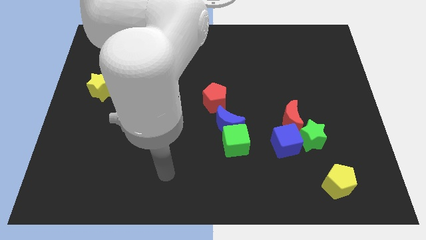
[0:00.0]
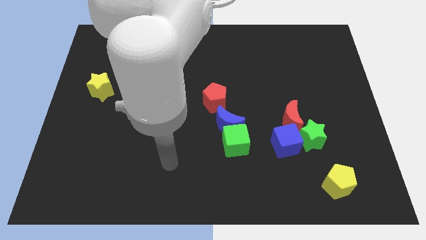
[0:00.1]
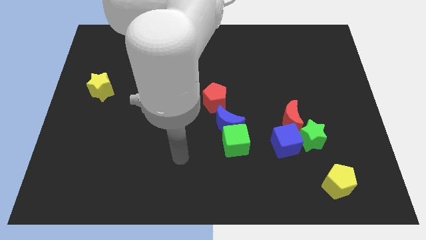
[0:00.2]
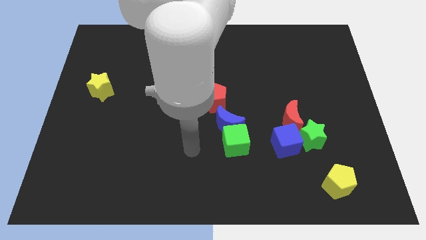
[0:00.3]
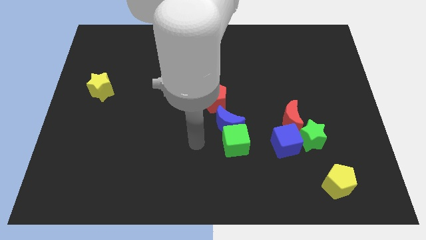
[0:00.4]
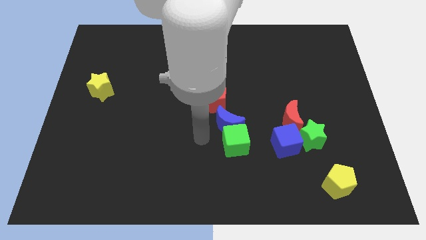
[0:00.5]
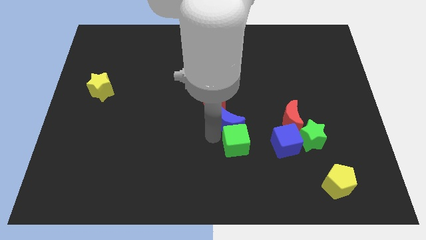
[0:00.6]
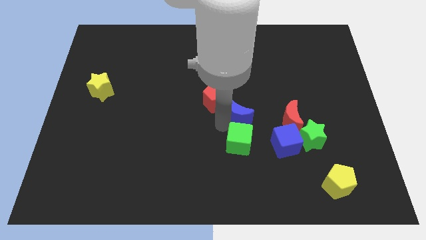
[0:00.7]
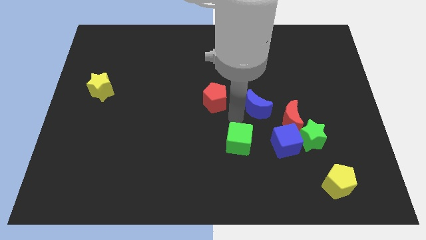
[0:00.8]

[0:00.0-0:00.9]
move the green cube away from the blue moon

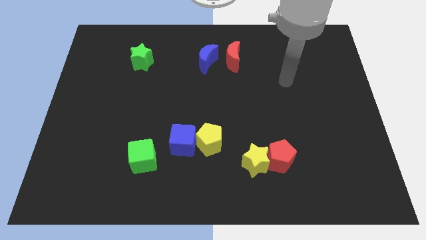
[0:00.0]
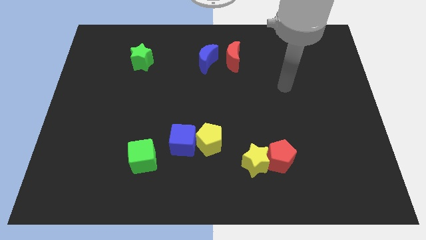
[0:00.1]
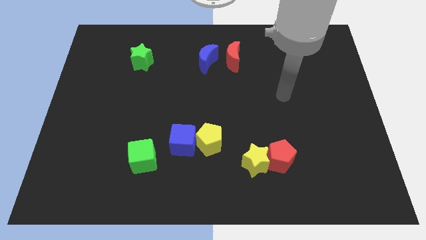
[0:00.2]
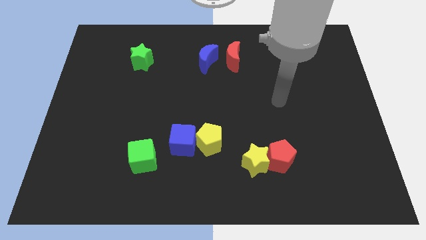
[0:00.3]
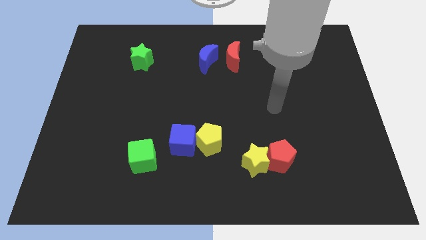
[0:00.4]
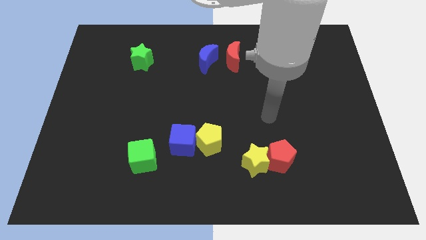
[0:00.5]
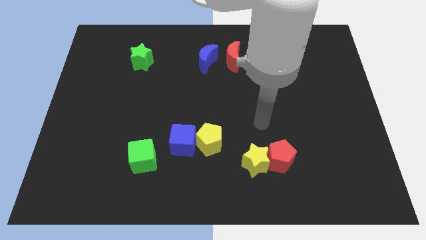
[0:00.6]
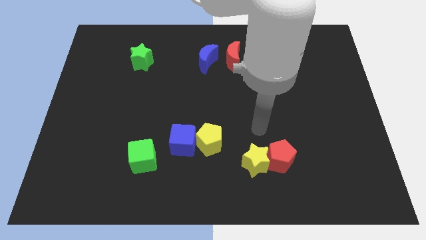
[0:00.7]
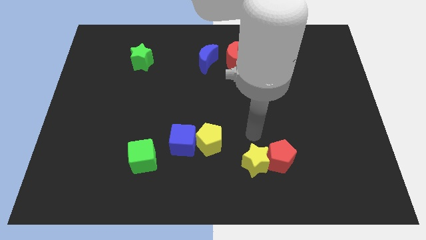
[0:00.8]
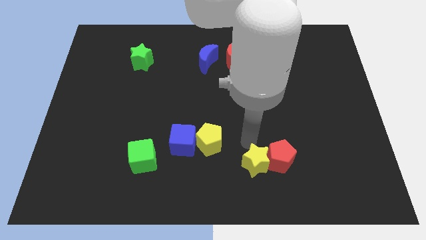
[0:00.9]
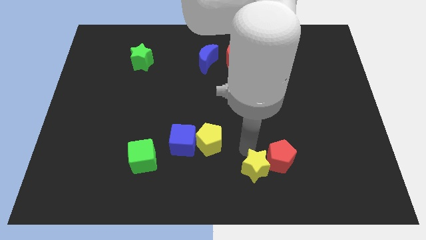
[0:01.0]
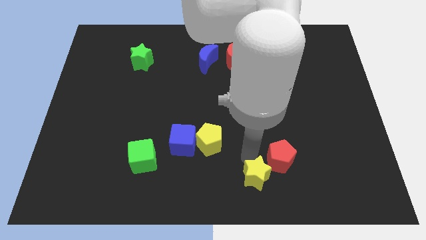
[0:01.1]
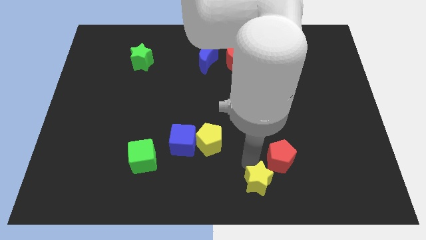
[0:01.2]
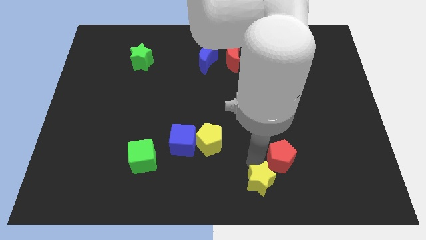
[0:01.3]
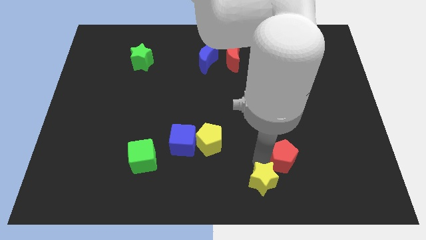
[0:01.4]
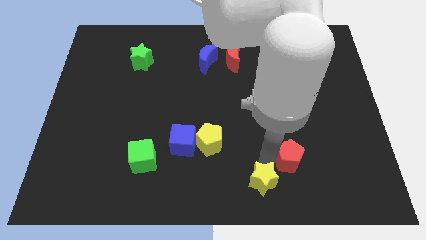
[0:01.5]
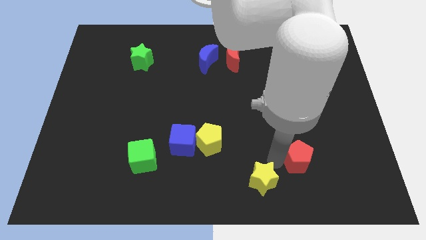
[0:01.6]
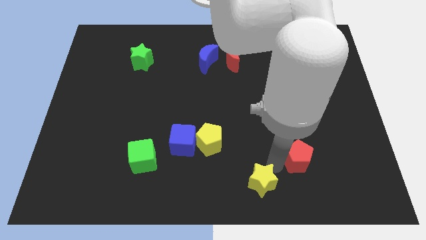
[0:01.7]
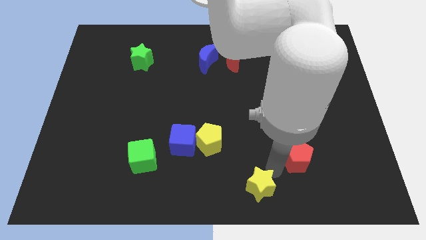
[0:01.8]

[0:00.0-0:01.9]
pull the red pentagon apart from the yellow star

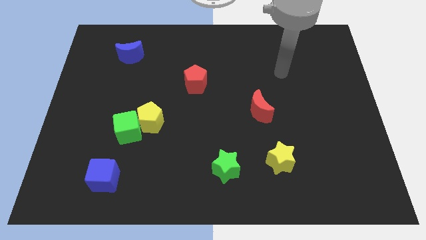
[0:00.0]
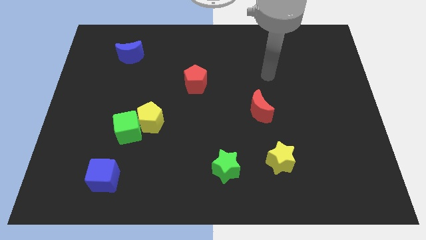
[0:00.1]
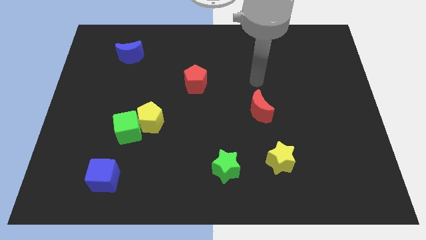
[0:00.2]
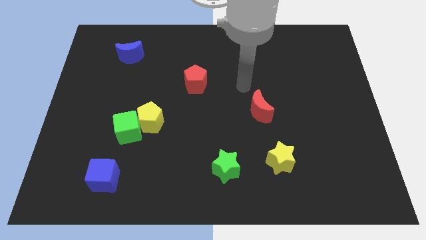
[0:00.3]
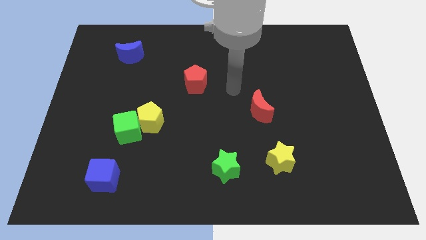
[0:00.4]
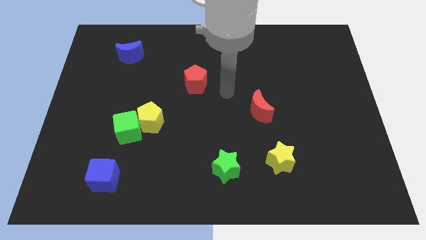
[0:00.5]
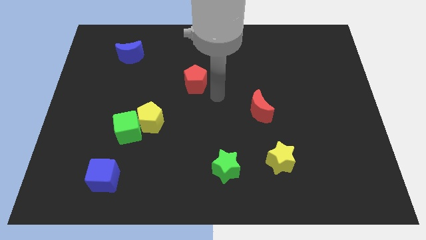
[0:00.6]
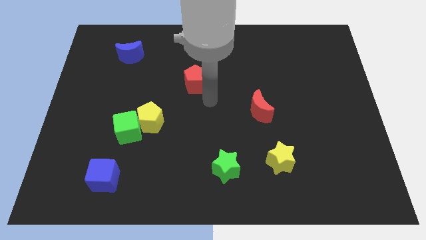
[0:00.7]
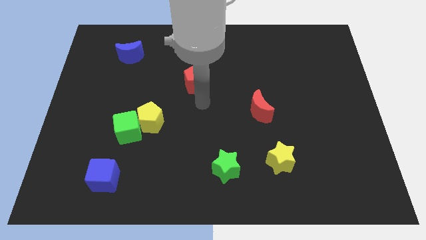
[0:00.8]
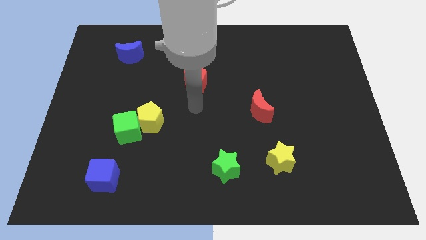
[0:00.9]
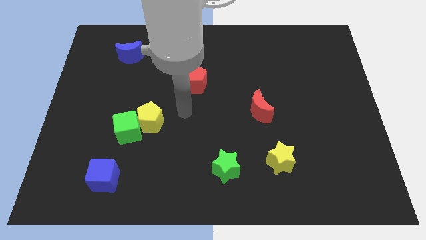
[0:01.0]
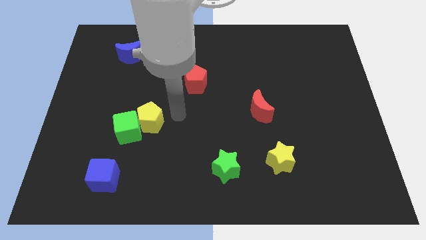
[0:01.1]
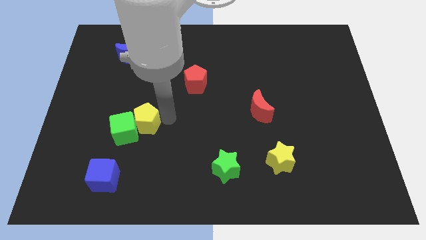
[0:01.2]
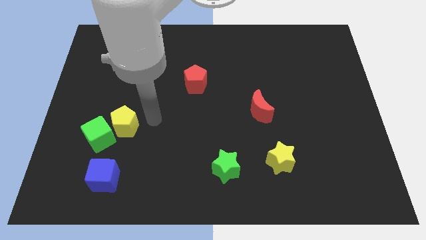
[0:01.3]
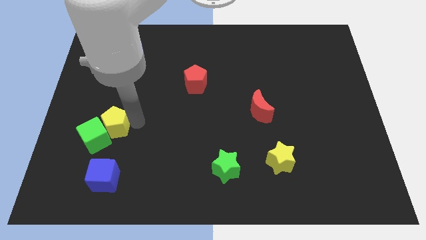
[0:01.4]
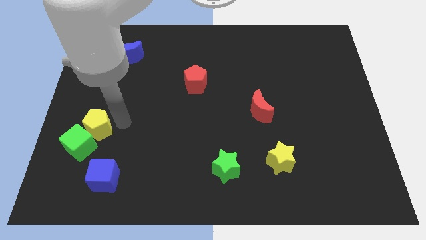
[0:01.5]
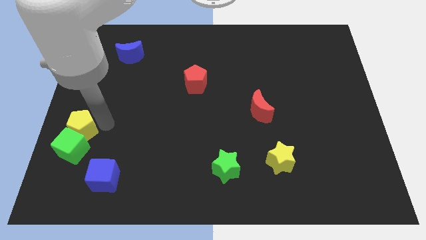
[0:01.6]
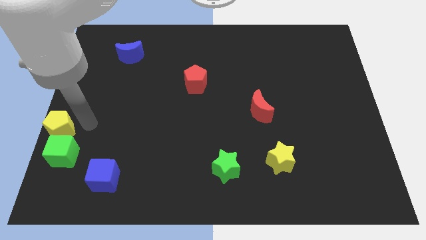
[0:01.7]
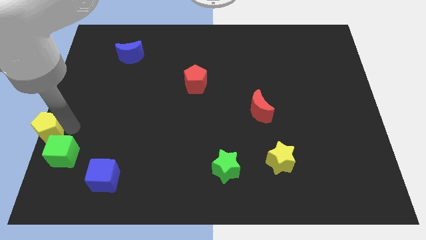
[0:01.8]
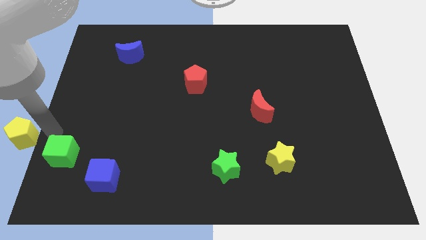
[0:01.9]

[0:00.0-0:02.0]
pull the green cube apart from the yellow pentagon

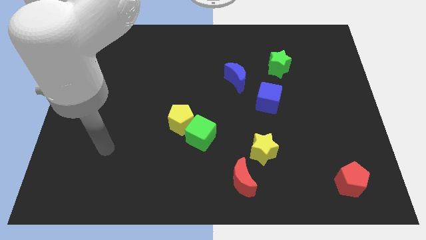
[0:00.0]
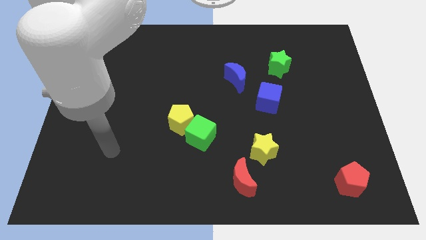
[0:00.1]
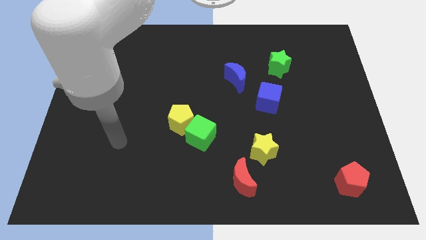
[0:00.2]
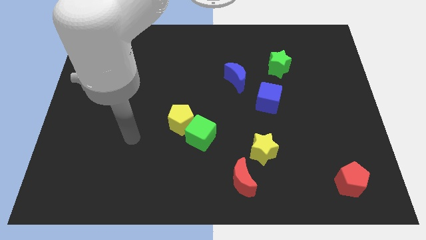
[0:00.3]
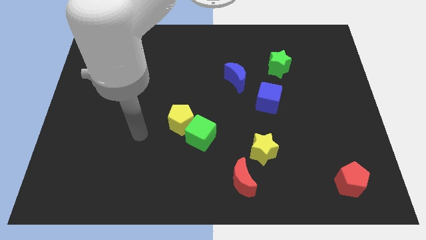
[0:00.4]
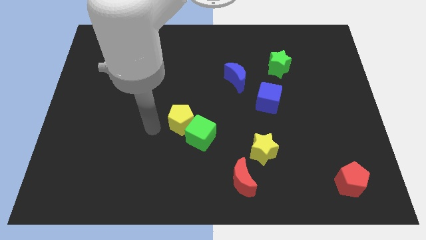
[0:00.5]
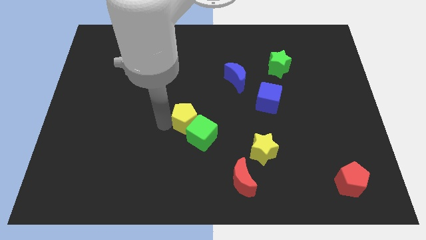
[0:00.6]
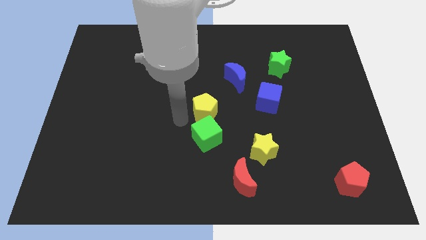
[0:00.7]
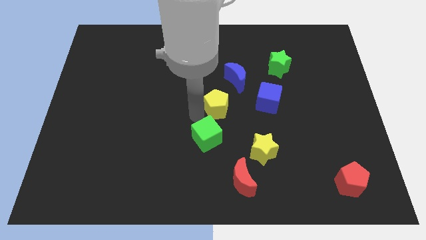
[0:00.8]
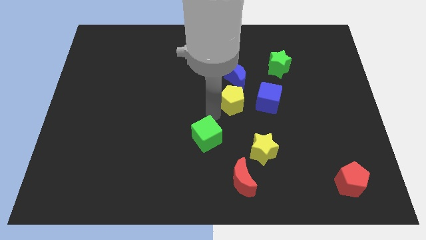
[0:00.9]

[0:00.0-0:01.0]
separate the green cube from the yellow pentagon

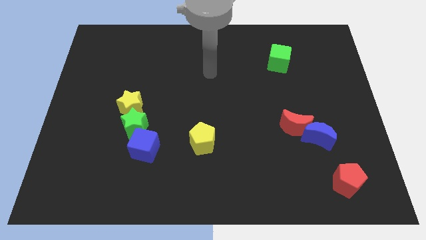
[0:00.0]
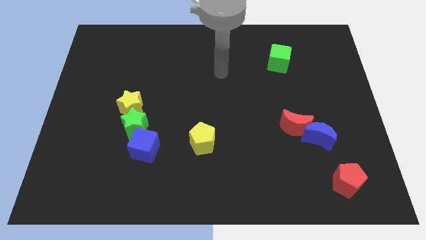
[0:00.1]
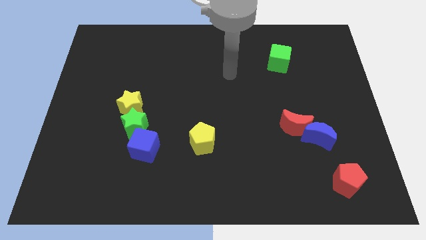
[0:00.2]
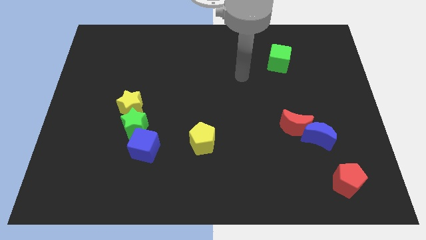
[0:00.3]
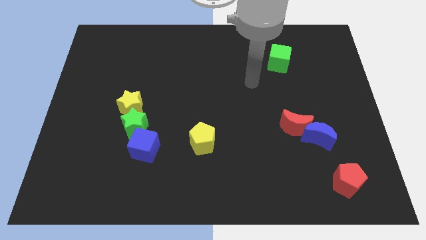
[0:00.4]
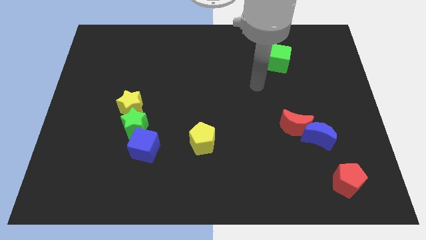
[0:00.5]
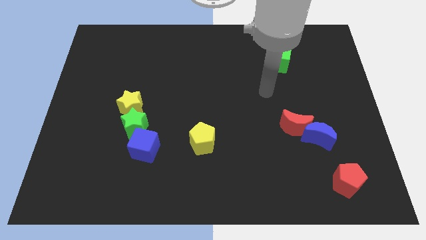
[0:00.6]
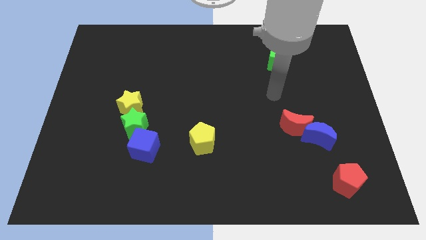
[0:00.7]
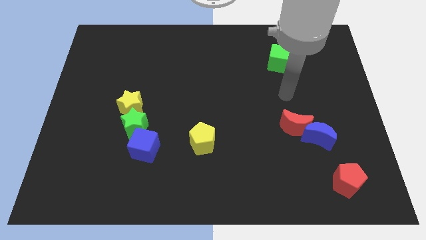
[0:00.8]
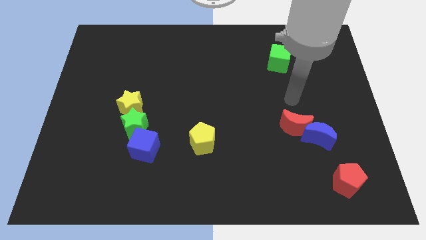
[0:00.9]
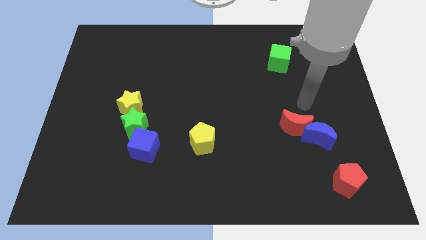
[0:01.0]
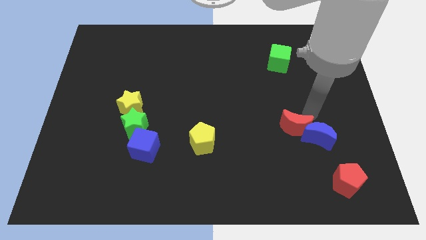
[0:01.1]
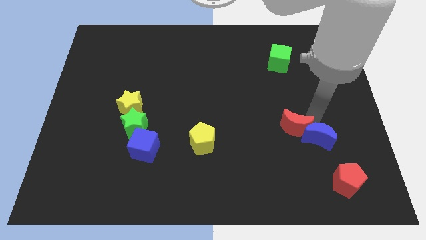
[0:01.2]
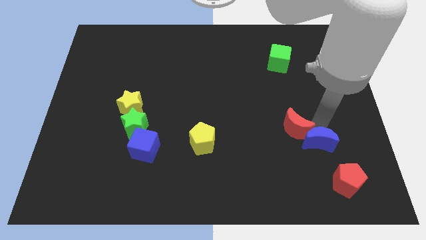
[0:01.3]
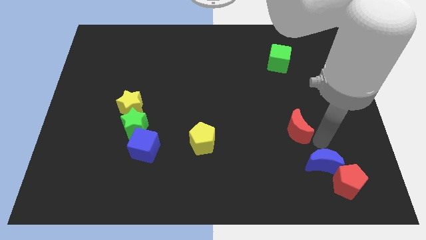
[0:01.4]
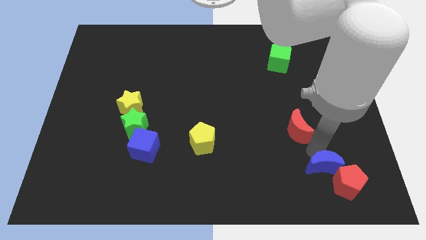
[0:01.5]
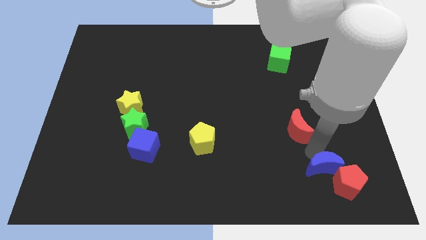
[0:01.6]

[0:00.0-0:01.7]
move the red moon away from the blue moon

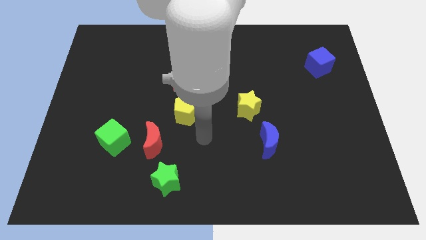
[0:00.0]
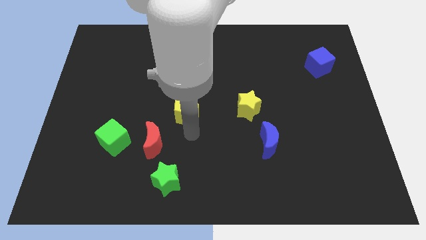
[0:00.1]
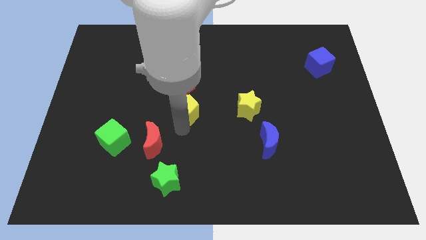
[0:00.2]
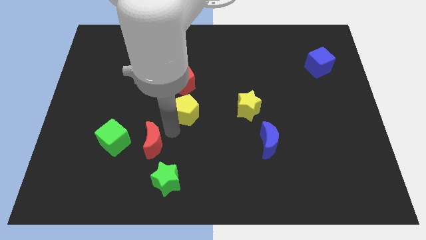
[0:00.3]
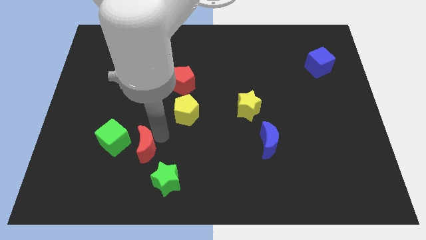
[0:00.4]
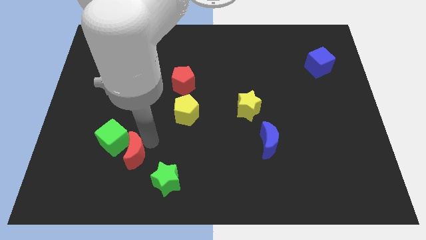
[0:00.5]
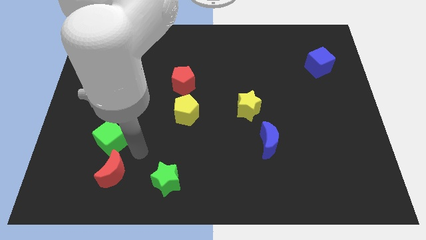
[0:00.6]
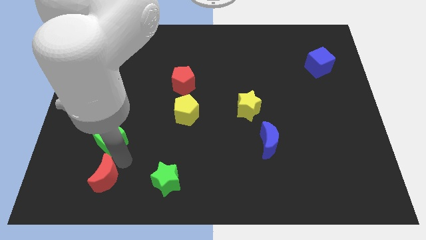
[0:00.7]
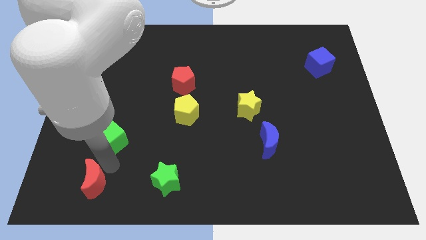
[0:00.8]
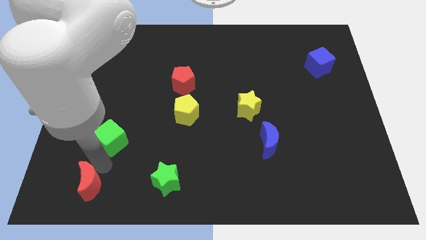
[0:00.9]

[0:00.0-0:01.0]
pull the green cube apart from the red moon

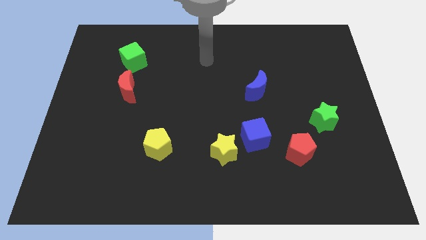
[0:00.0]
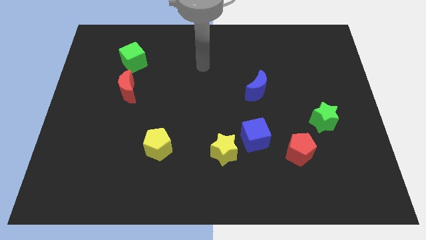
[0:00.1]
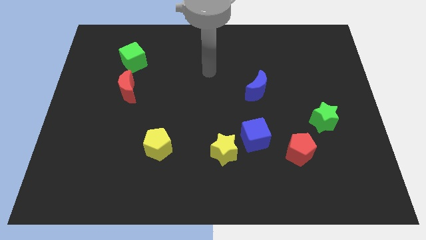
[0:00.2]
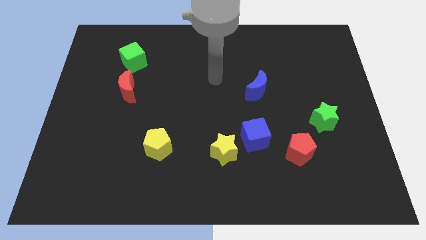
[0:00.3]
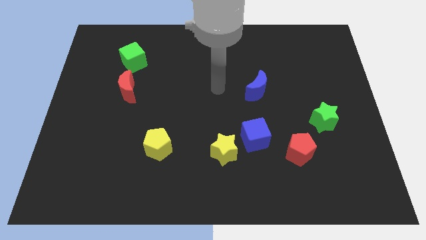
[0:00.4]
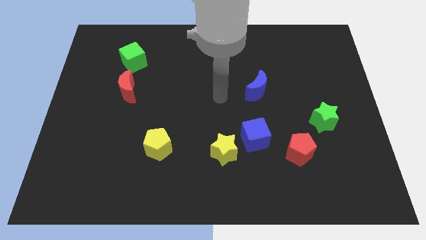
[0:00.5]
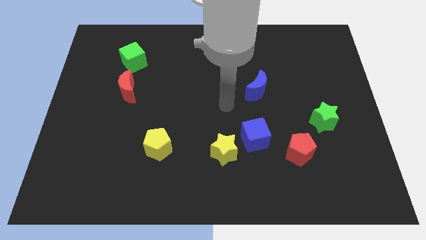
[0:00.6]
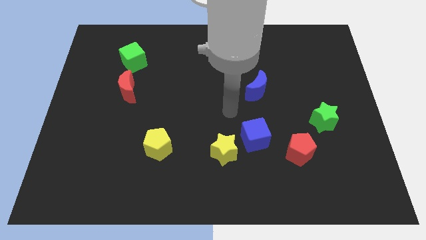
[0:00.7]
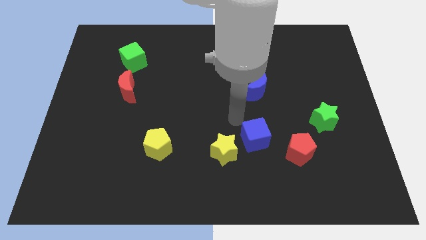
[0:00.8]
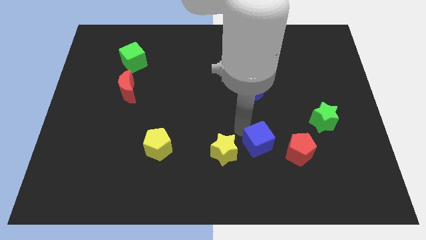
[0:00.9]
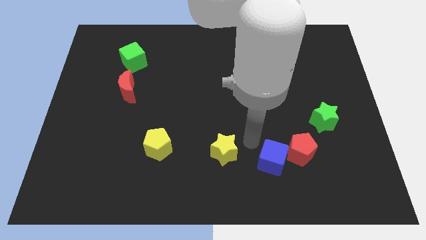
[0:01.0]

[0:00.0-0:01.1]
move the yellow star away from the blue cube
